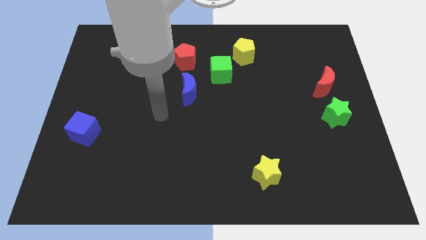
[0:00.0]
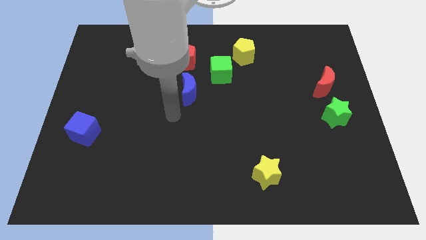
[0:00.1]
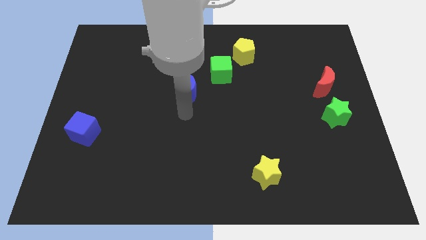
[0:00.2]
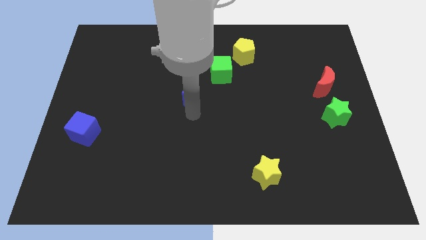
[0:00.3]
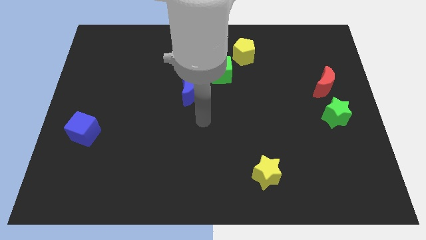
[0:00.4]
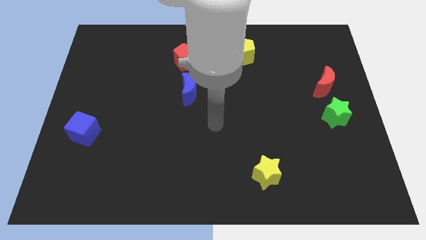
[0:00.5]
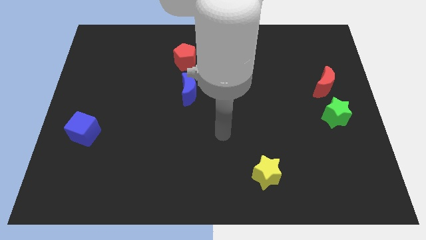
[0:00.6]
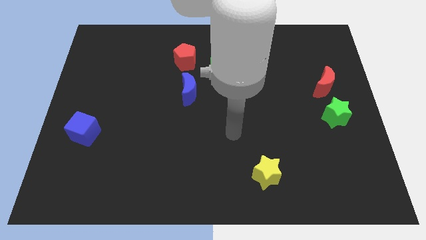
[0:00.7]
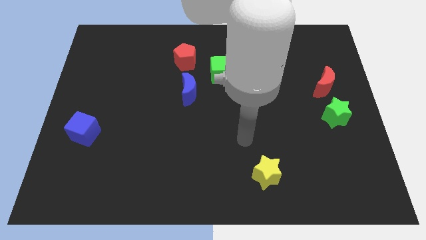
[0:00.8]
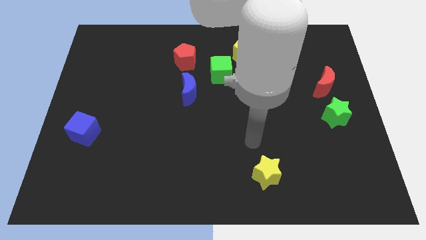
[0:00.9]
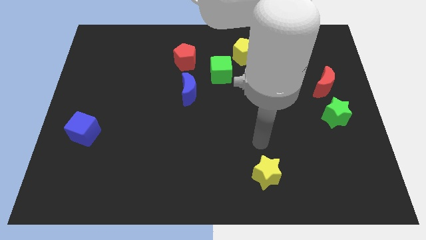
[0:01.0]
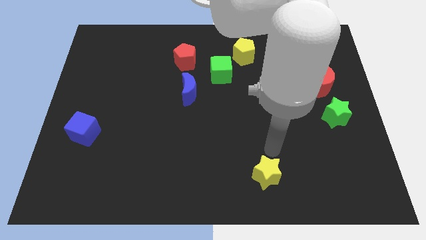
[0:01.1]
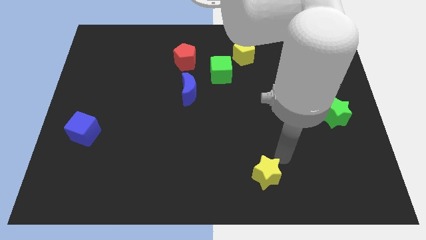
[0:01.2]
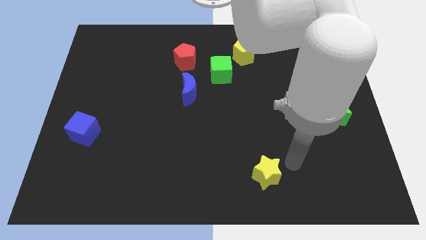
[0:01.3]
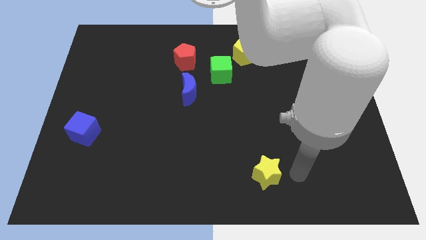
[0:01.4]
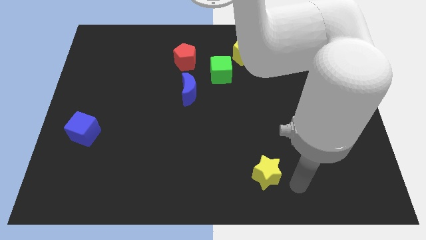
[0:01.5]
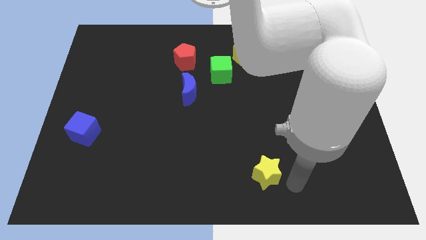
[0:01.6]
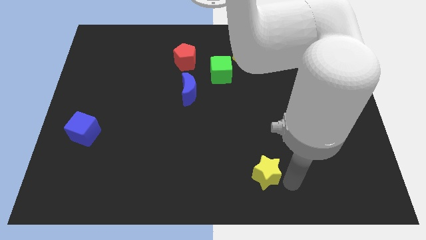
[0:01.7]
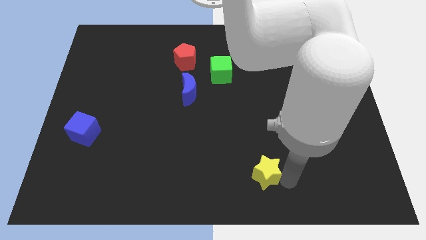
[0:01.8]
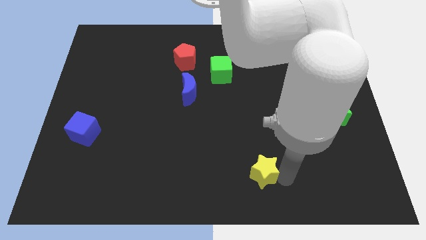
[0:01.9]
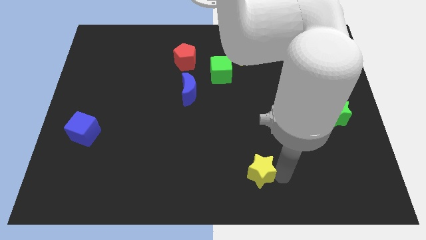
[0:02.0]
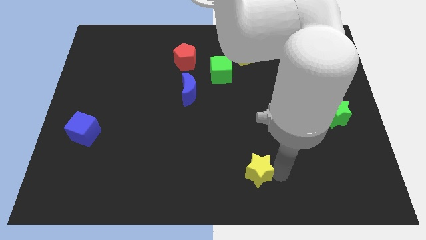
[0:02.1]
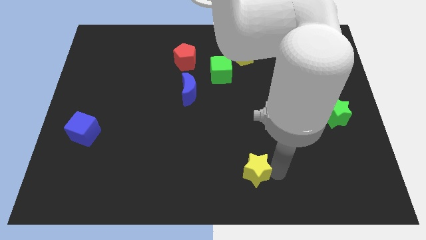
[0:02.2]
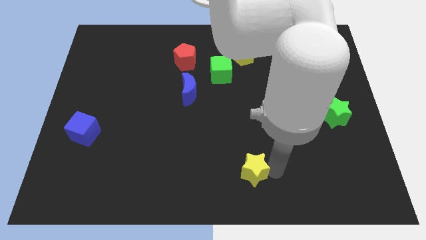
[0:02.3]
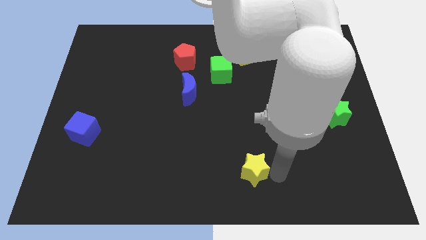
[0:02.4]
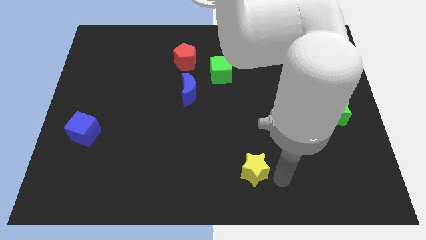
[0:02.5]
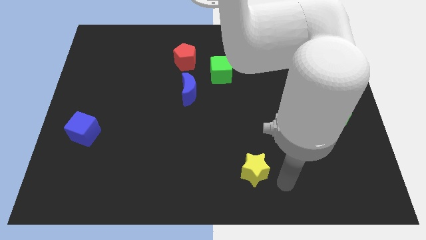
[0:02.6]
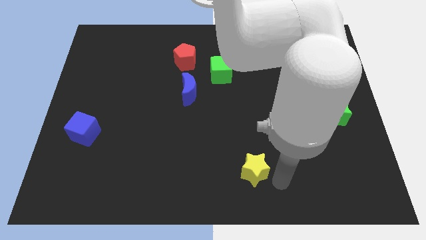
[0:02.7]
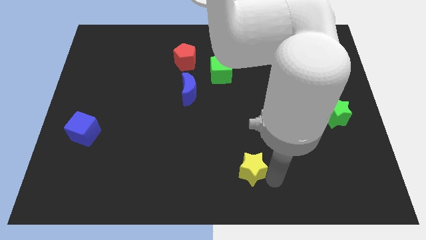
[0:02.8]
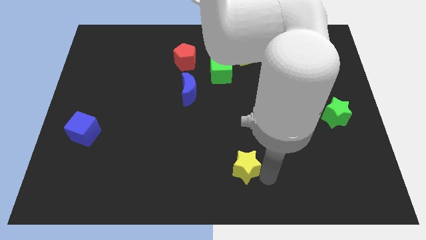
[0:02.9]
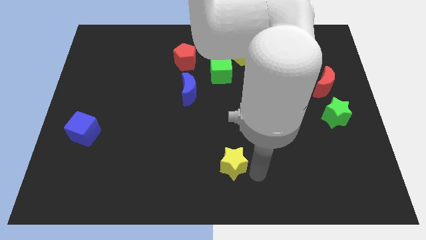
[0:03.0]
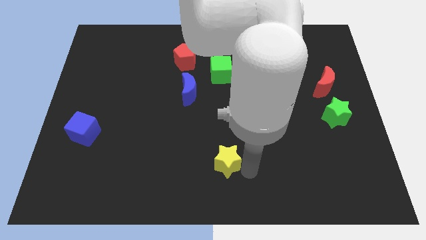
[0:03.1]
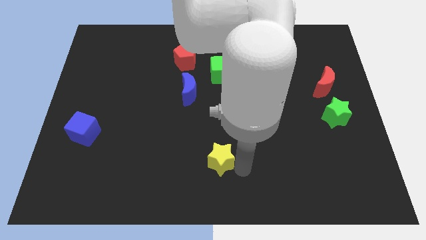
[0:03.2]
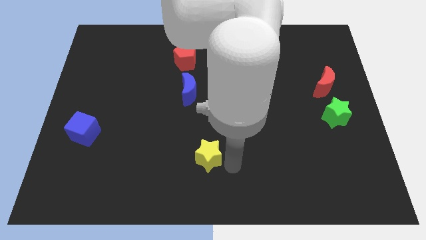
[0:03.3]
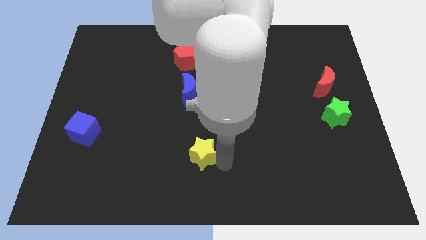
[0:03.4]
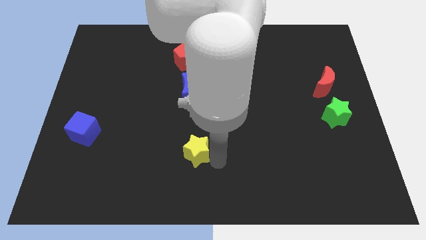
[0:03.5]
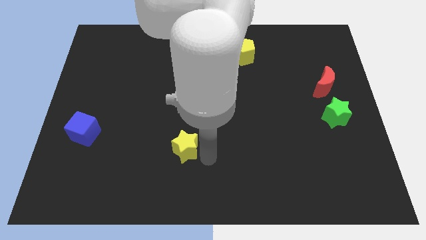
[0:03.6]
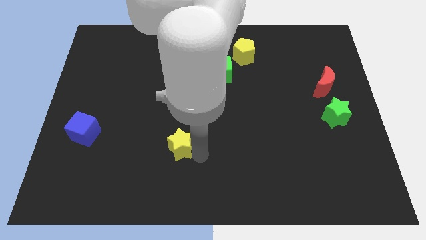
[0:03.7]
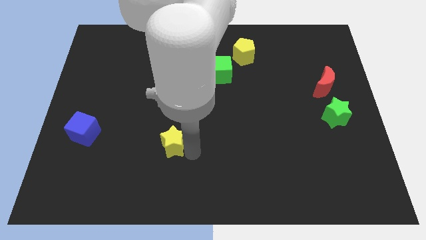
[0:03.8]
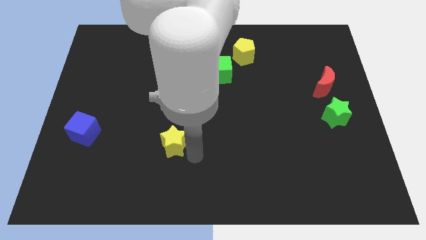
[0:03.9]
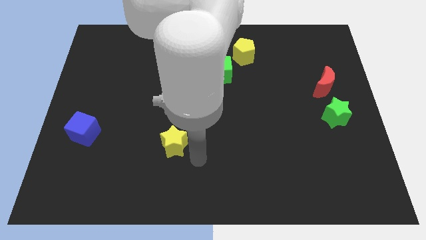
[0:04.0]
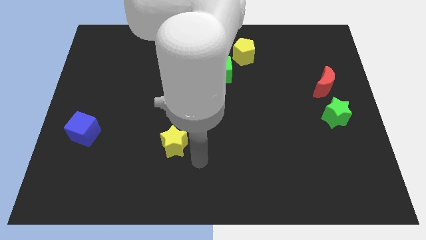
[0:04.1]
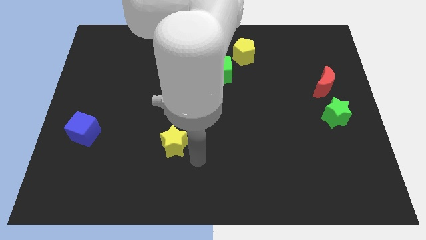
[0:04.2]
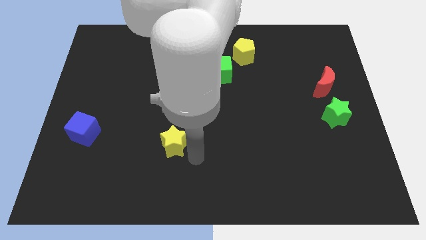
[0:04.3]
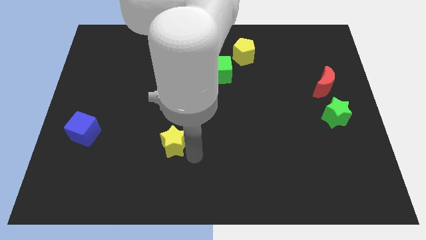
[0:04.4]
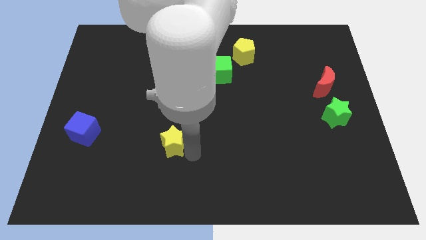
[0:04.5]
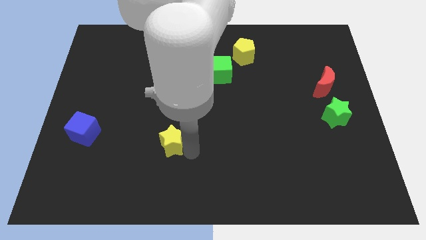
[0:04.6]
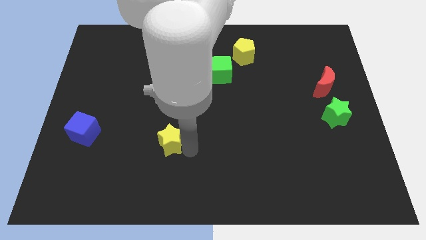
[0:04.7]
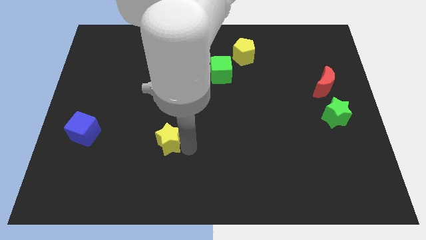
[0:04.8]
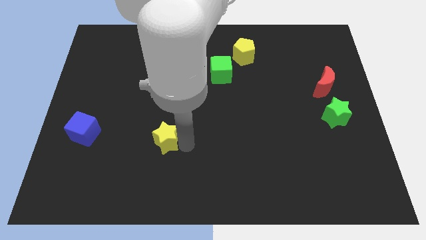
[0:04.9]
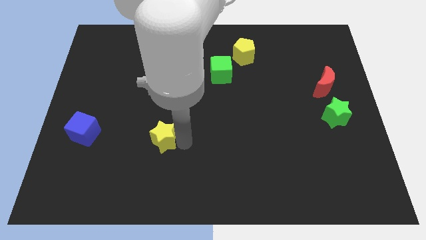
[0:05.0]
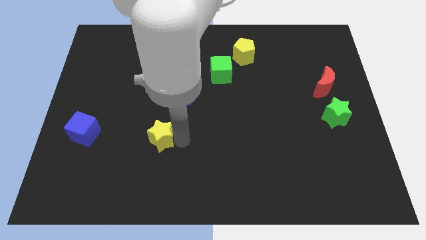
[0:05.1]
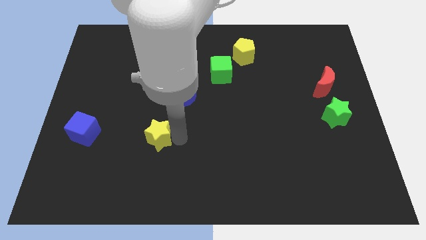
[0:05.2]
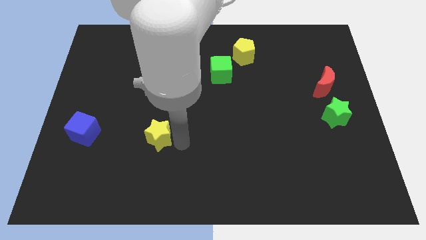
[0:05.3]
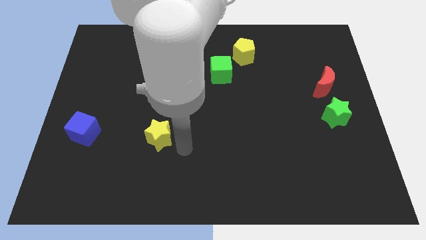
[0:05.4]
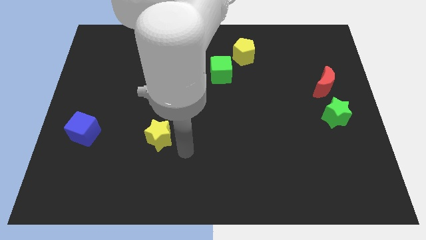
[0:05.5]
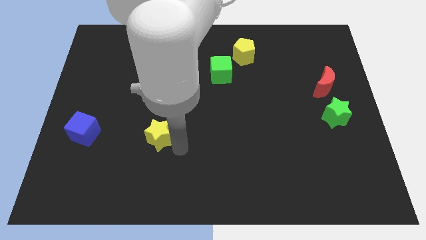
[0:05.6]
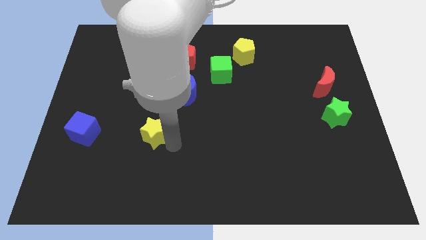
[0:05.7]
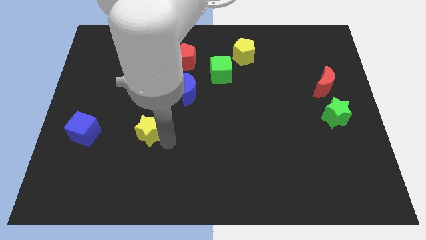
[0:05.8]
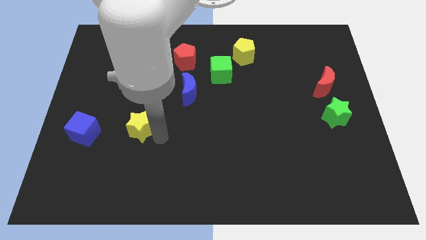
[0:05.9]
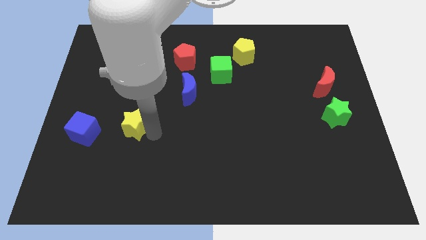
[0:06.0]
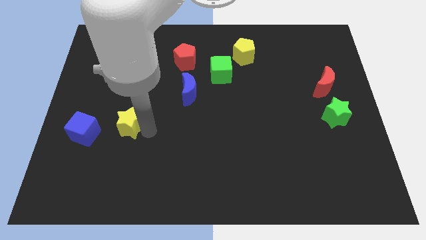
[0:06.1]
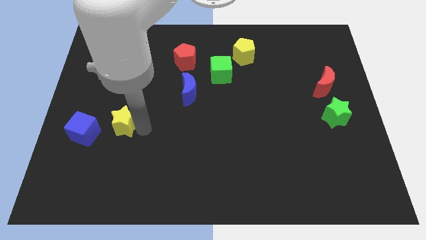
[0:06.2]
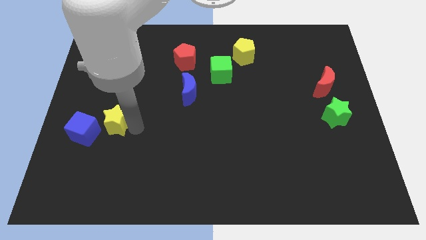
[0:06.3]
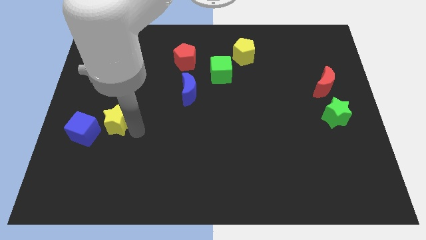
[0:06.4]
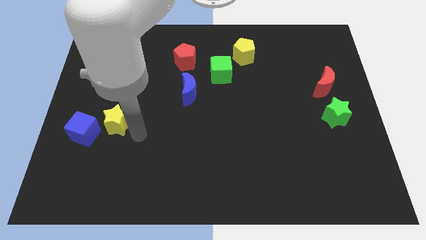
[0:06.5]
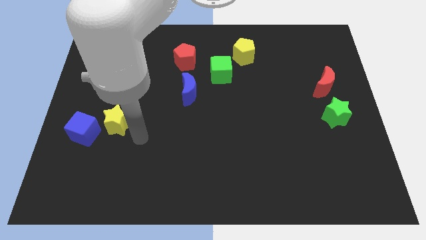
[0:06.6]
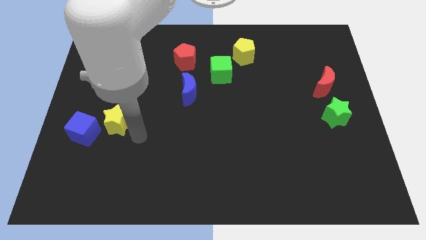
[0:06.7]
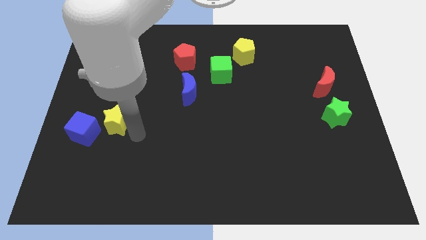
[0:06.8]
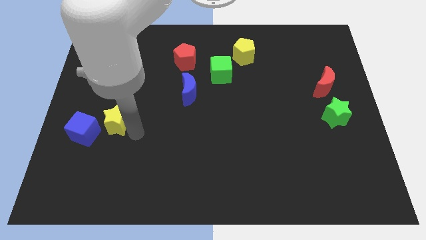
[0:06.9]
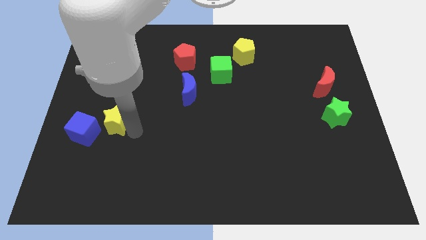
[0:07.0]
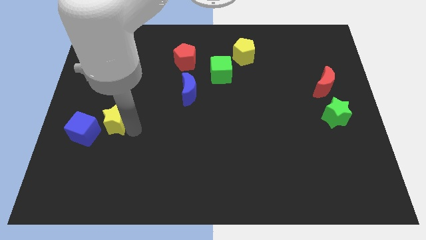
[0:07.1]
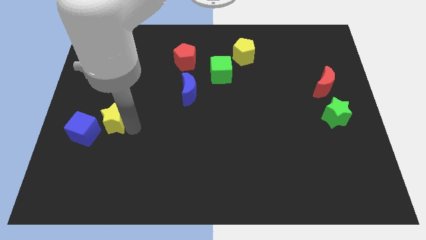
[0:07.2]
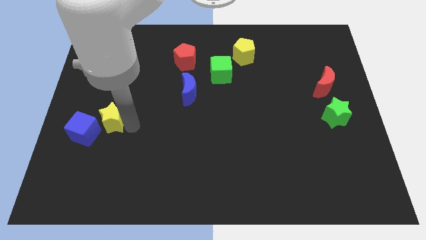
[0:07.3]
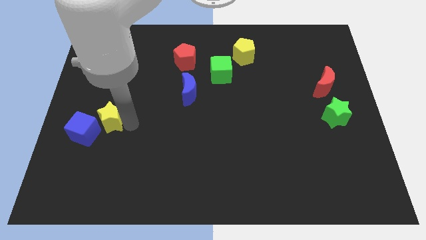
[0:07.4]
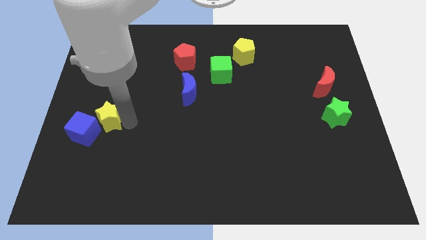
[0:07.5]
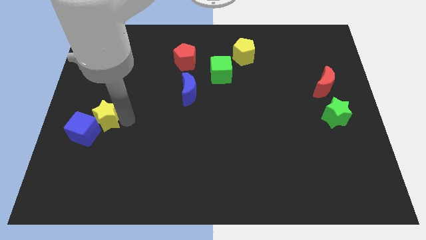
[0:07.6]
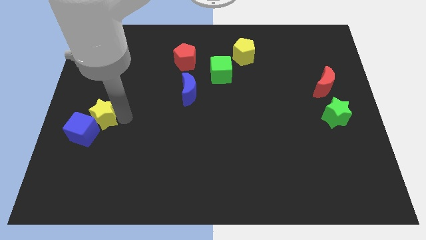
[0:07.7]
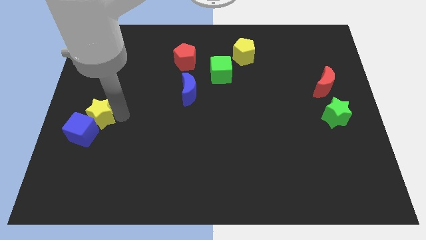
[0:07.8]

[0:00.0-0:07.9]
move the yellow star to the center left
